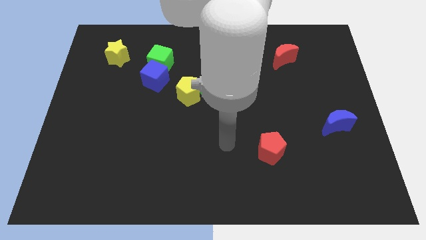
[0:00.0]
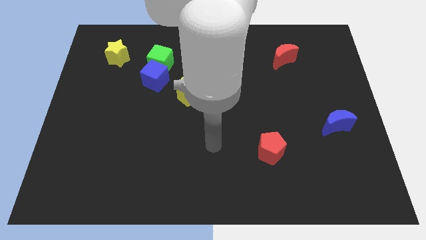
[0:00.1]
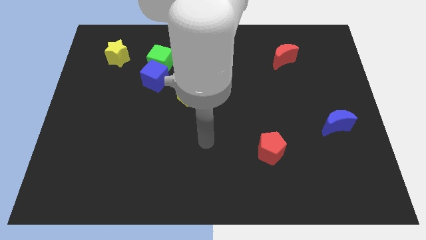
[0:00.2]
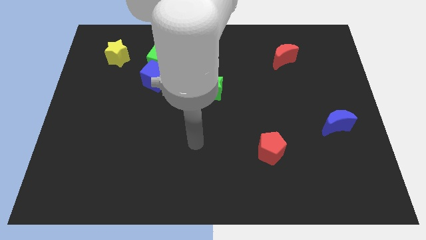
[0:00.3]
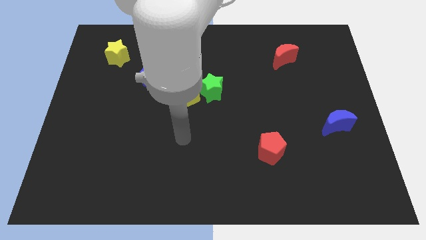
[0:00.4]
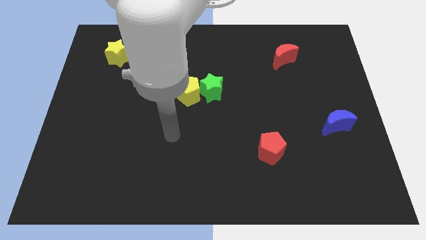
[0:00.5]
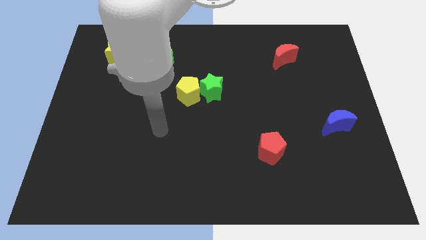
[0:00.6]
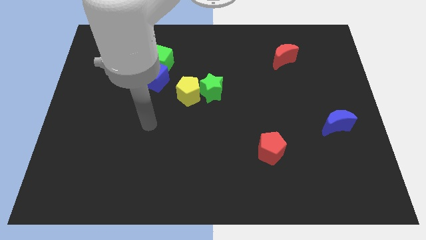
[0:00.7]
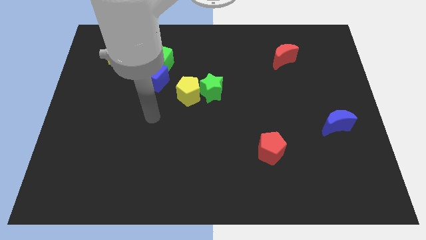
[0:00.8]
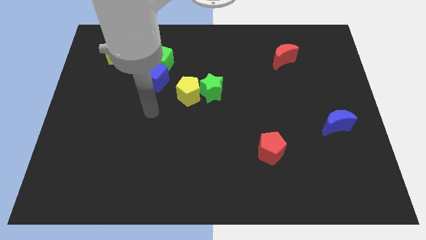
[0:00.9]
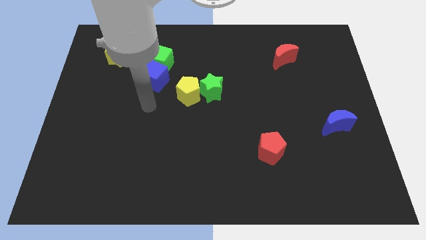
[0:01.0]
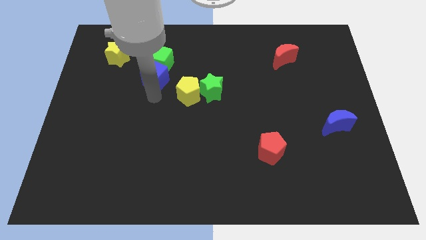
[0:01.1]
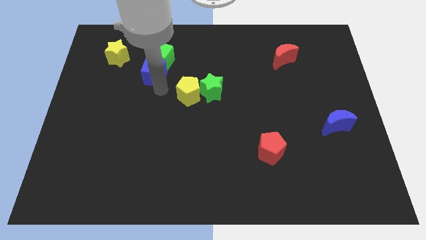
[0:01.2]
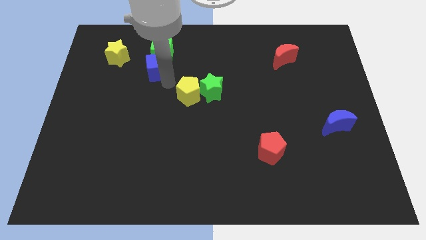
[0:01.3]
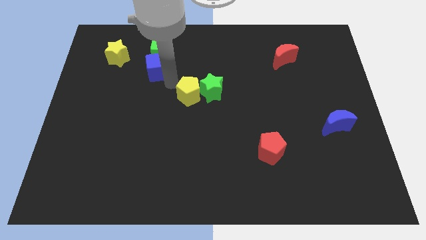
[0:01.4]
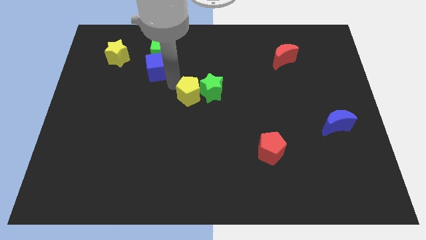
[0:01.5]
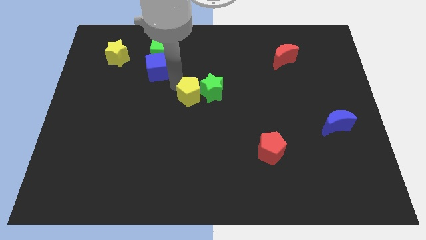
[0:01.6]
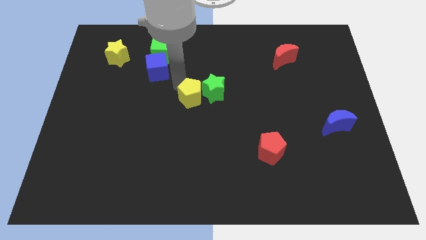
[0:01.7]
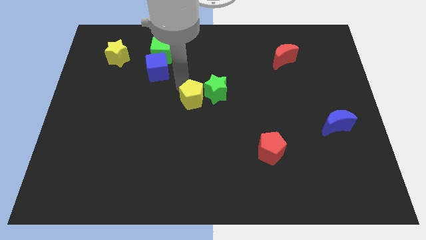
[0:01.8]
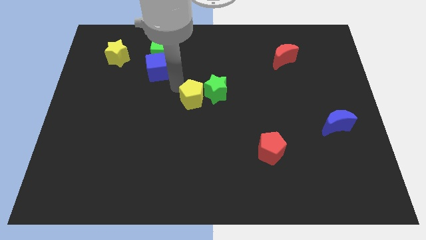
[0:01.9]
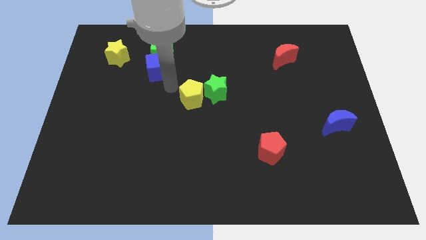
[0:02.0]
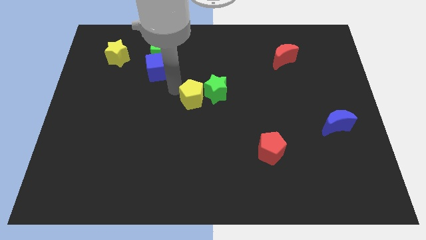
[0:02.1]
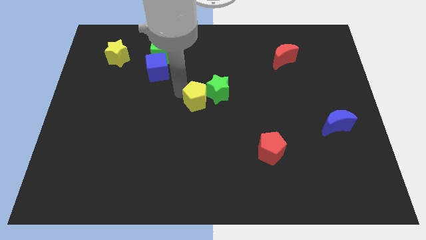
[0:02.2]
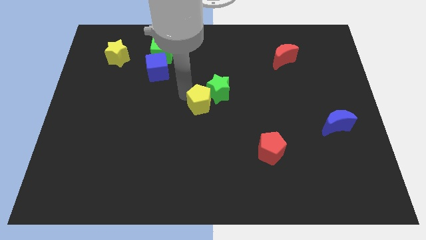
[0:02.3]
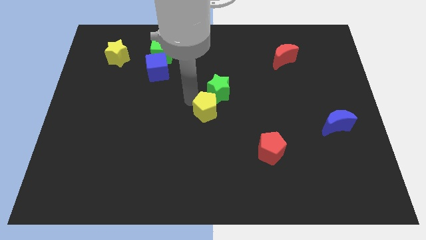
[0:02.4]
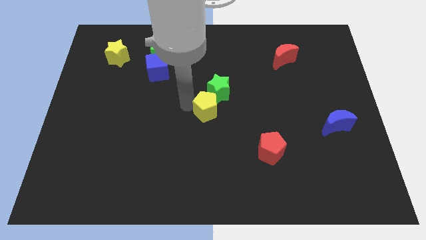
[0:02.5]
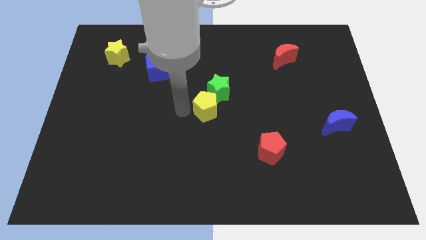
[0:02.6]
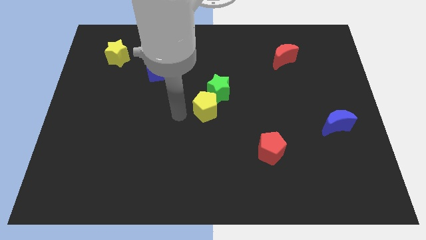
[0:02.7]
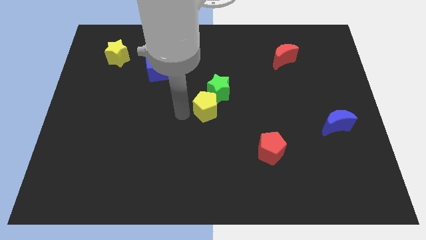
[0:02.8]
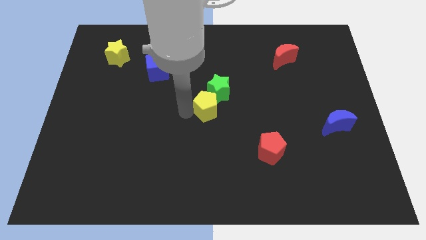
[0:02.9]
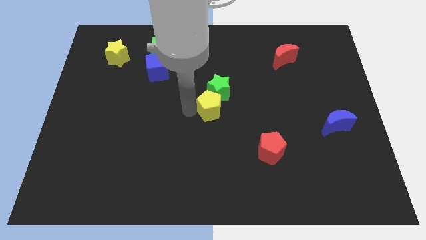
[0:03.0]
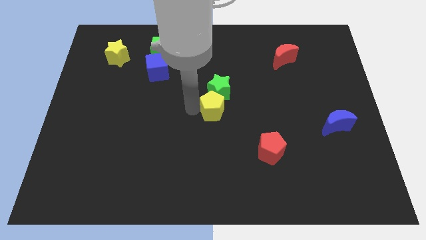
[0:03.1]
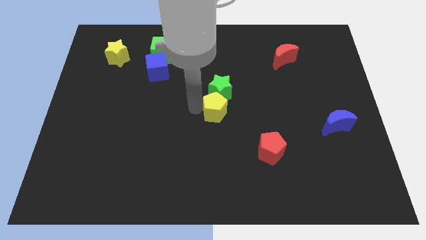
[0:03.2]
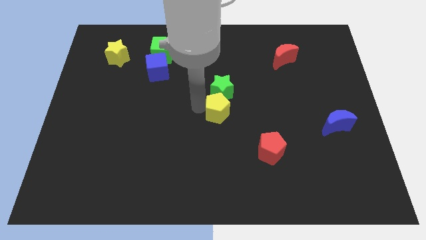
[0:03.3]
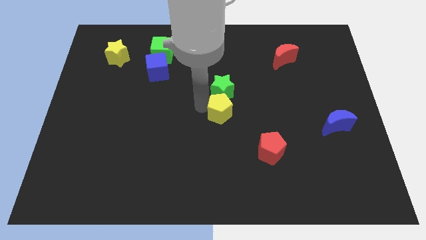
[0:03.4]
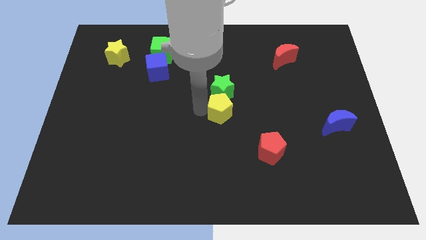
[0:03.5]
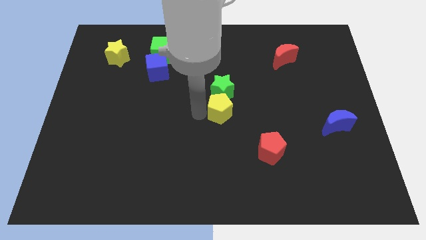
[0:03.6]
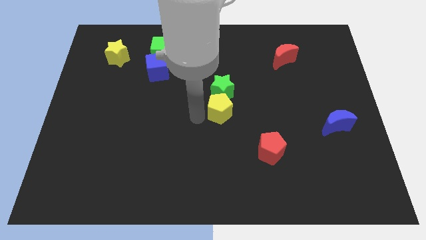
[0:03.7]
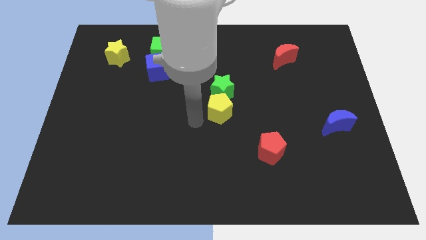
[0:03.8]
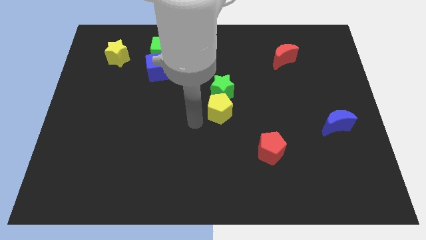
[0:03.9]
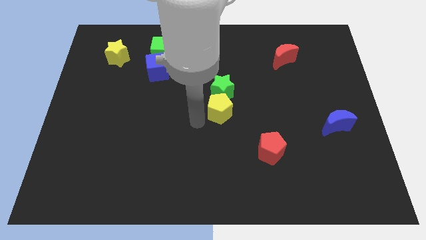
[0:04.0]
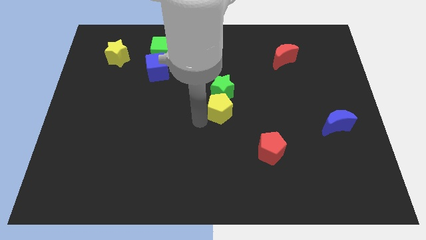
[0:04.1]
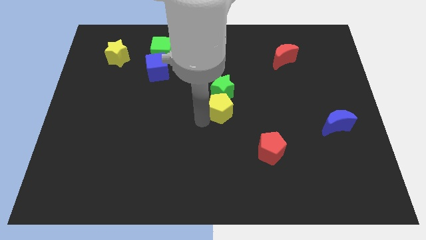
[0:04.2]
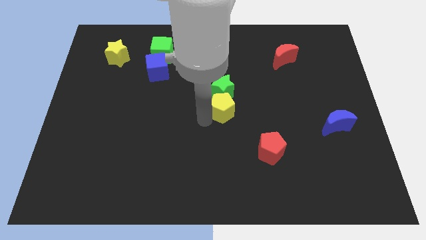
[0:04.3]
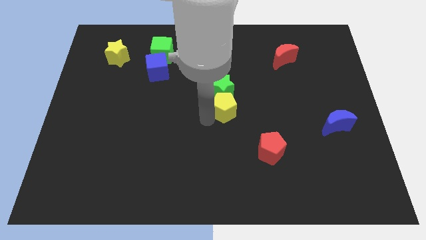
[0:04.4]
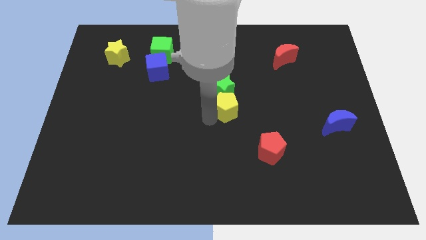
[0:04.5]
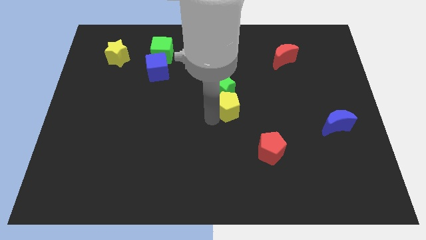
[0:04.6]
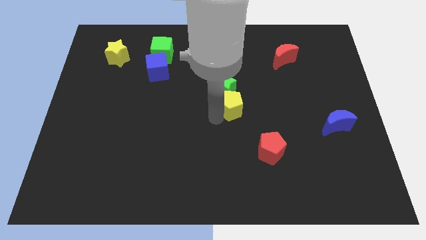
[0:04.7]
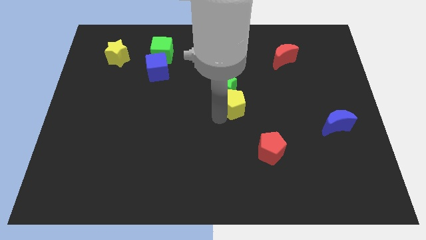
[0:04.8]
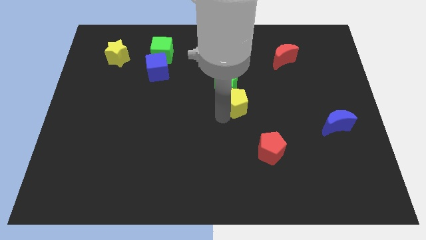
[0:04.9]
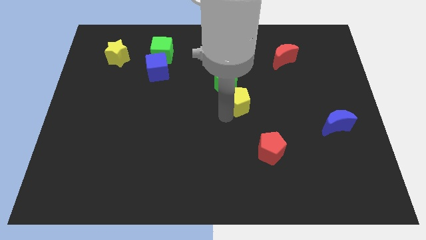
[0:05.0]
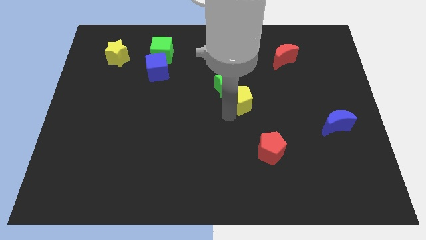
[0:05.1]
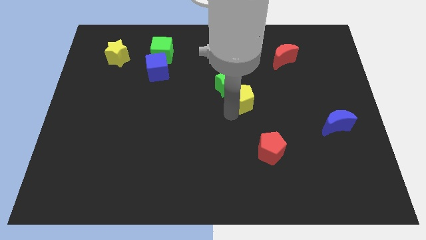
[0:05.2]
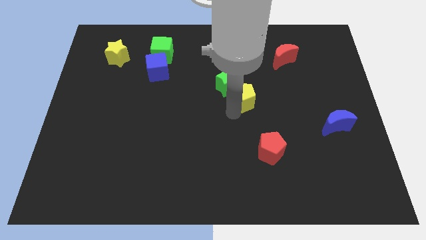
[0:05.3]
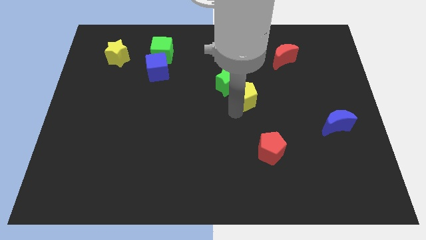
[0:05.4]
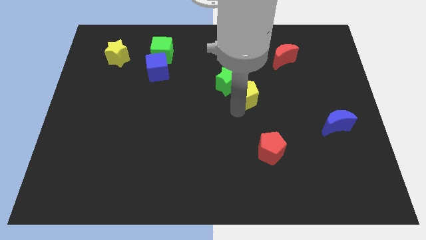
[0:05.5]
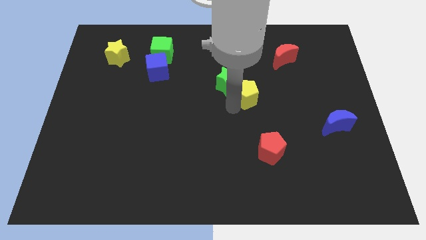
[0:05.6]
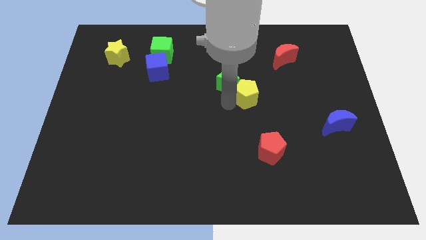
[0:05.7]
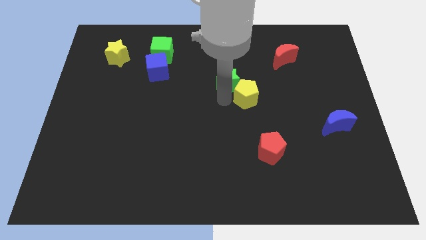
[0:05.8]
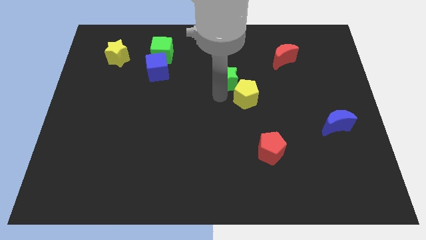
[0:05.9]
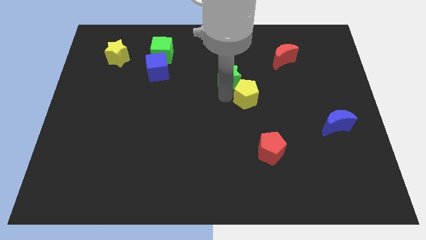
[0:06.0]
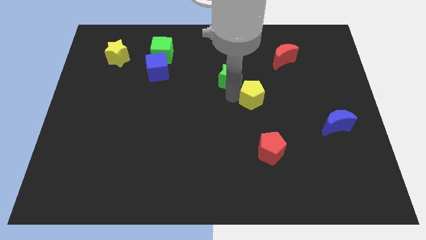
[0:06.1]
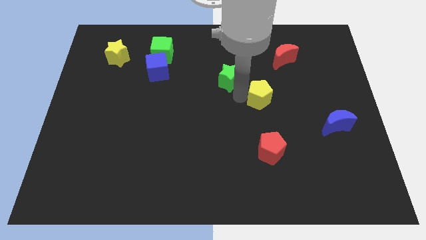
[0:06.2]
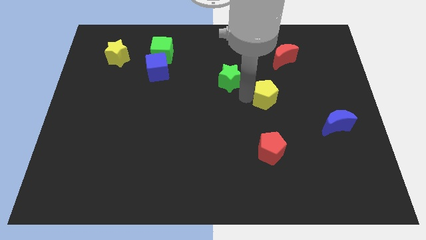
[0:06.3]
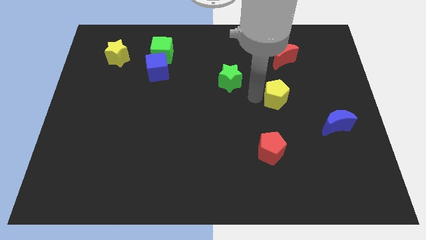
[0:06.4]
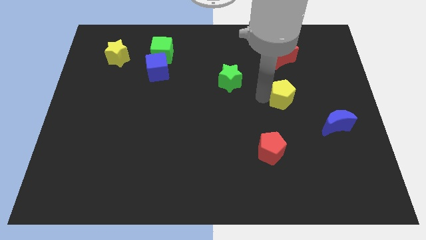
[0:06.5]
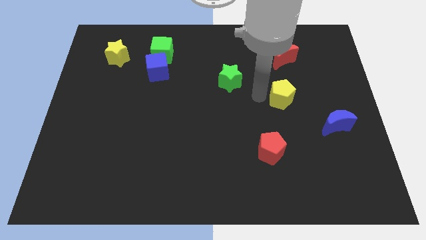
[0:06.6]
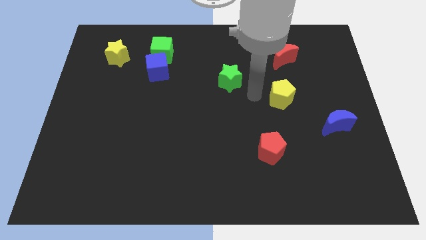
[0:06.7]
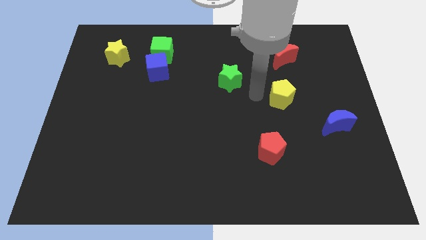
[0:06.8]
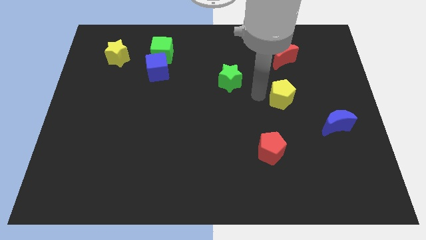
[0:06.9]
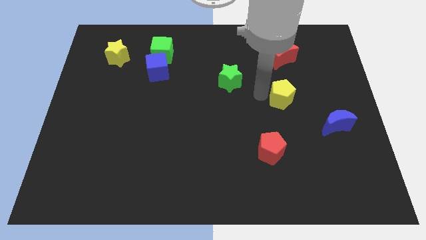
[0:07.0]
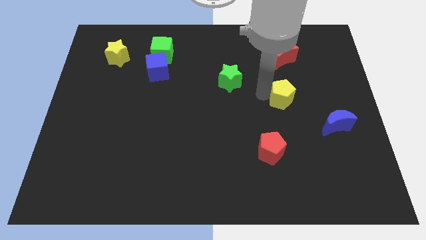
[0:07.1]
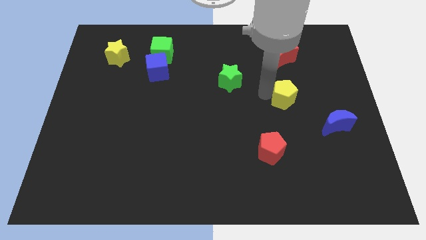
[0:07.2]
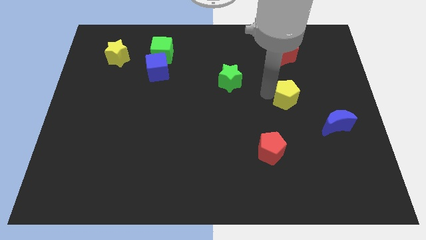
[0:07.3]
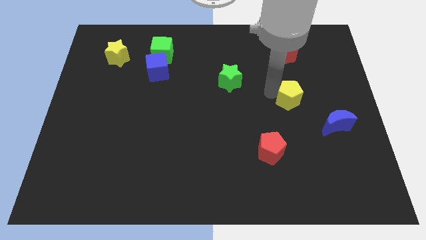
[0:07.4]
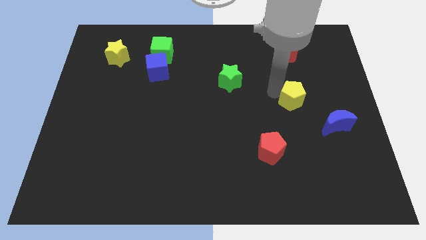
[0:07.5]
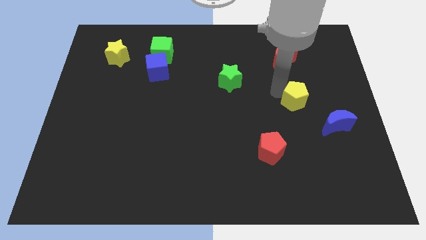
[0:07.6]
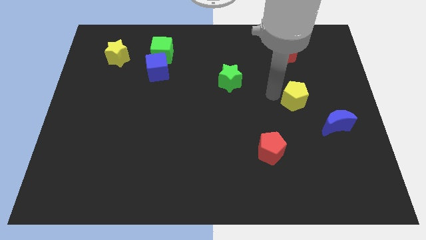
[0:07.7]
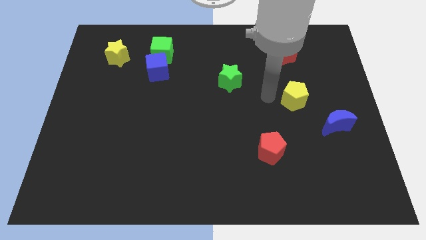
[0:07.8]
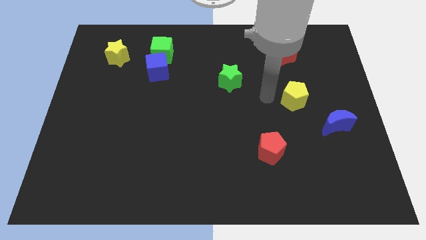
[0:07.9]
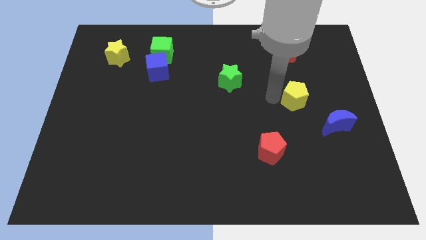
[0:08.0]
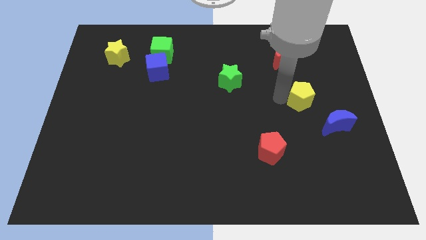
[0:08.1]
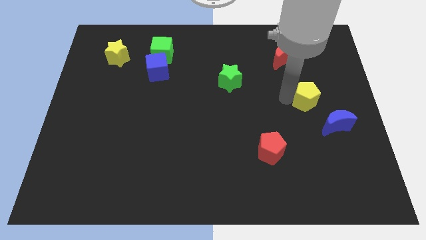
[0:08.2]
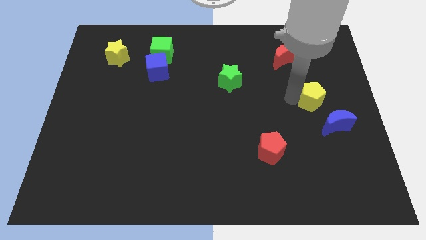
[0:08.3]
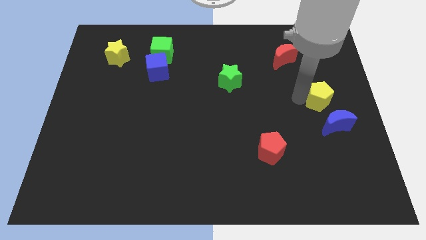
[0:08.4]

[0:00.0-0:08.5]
move the yellow pentagon to the center right
